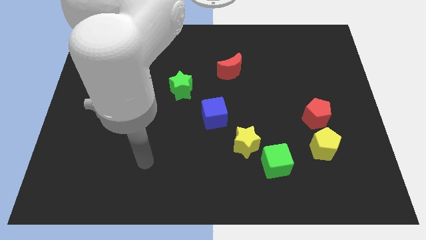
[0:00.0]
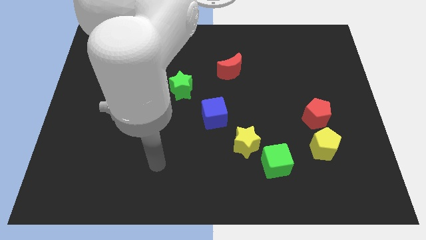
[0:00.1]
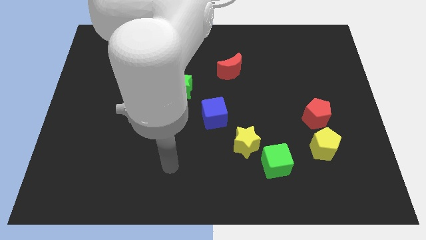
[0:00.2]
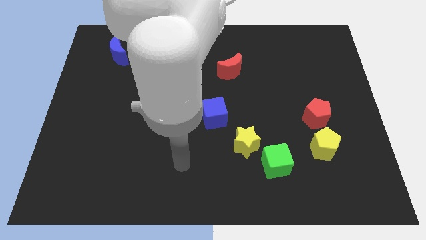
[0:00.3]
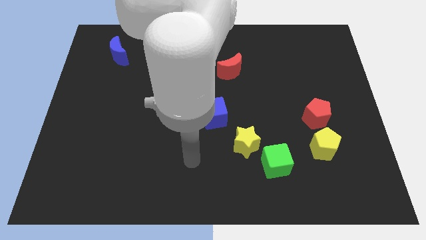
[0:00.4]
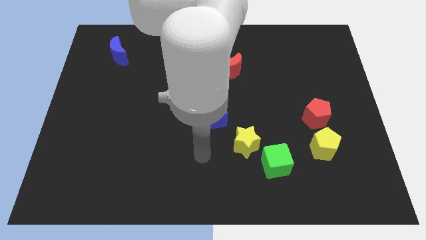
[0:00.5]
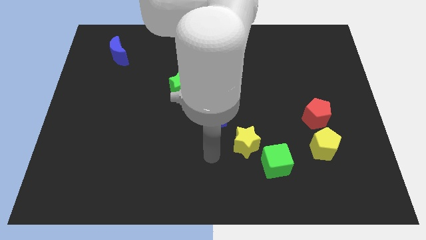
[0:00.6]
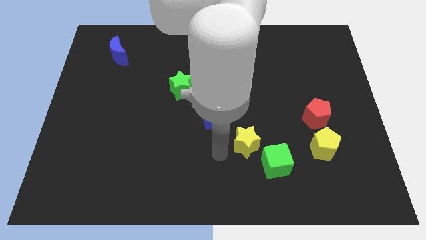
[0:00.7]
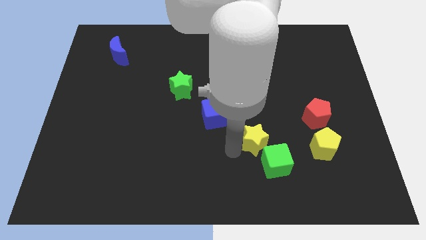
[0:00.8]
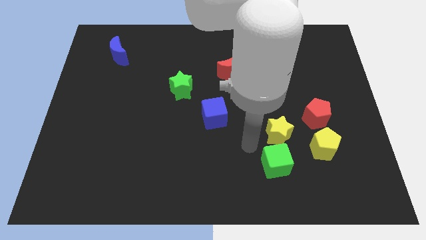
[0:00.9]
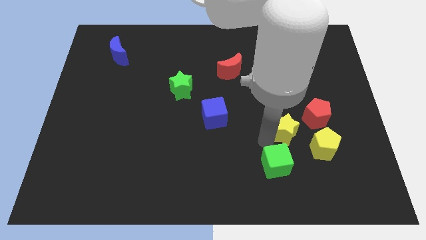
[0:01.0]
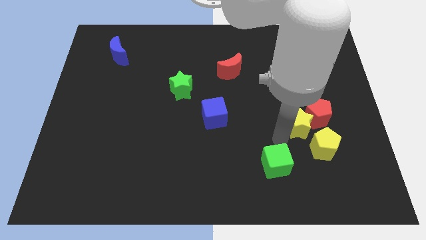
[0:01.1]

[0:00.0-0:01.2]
move the green cube away from the yellow star

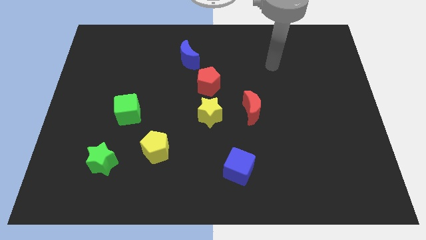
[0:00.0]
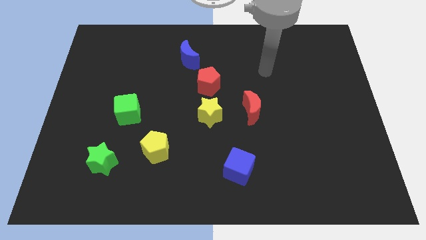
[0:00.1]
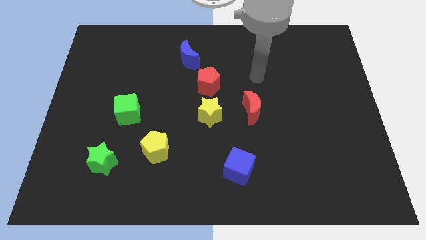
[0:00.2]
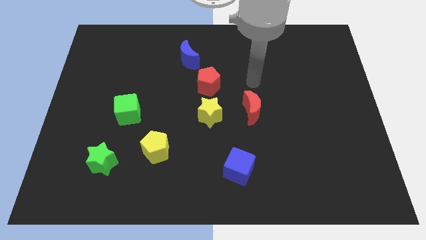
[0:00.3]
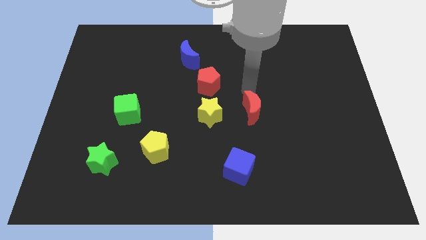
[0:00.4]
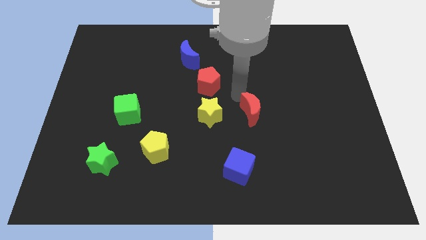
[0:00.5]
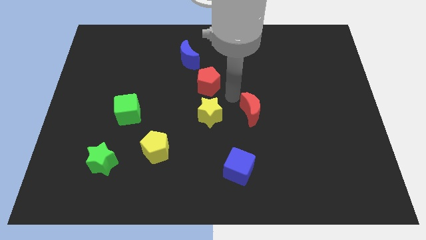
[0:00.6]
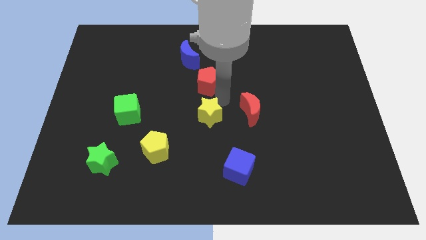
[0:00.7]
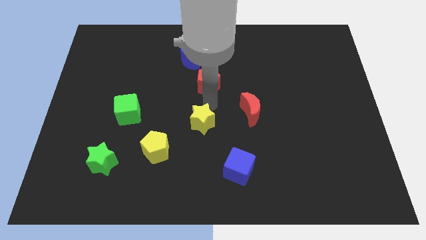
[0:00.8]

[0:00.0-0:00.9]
separate the red pentagon from the yellow star

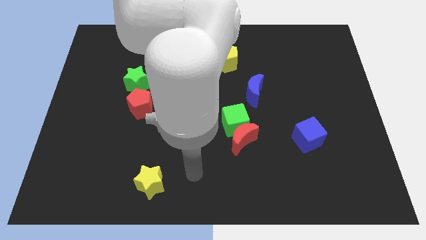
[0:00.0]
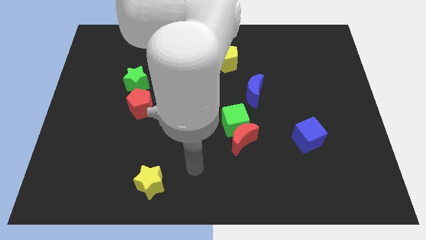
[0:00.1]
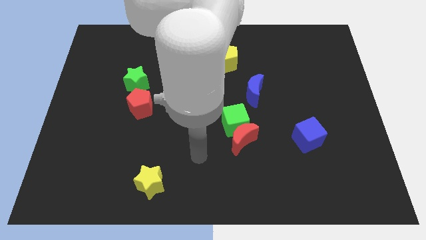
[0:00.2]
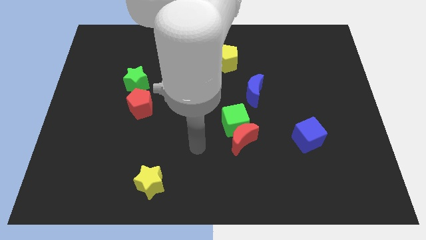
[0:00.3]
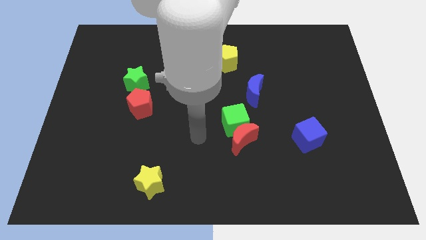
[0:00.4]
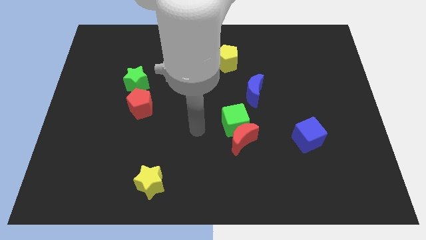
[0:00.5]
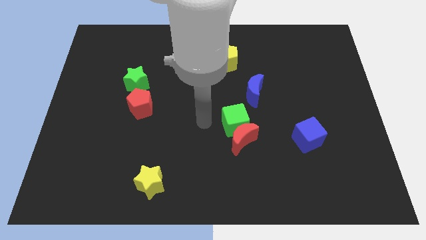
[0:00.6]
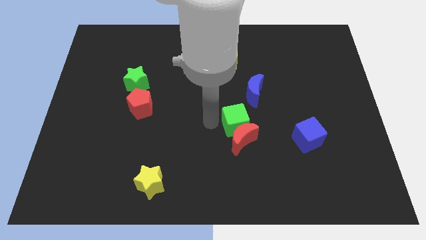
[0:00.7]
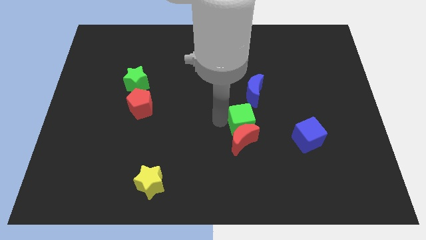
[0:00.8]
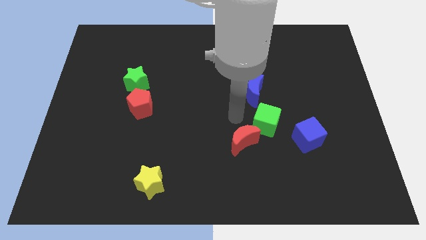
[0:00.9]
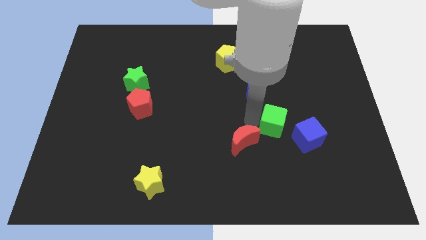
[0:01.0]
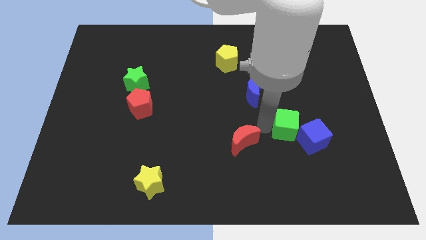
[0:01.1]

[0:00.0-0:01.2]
pull the red moon apart from the green cube

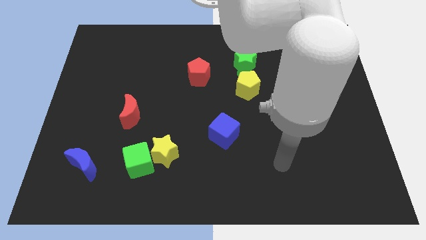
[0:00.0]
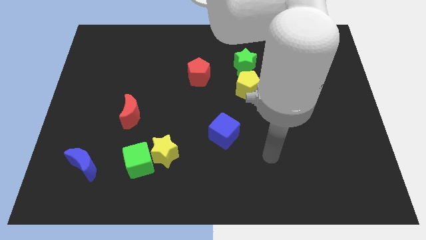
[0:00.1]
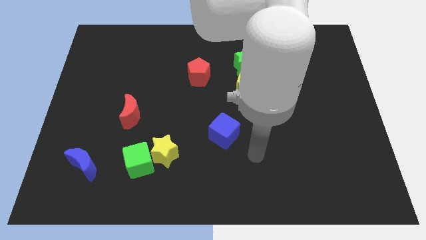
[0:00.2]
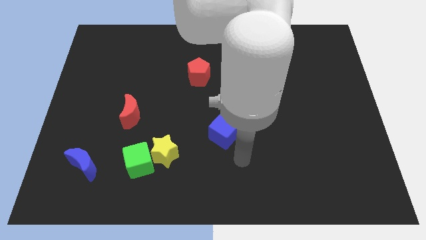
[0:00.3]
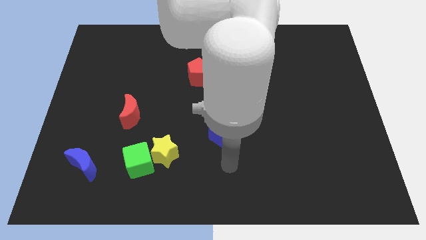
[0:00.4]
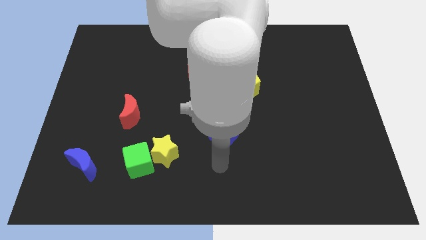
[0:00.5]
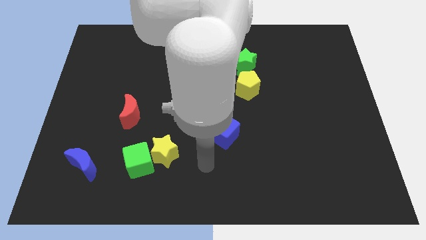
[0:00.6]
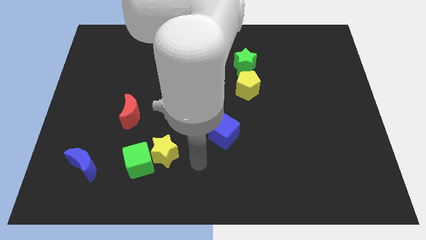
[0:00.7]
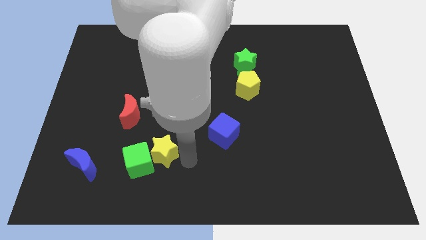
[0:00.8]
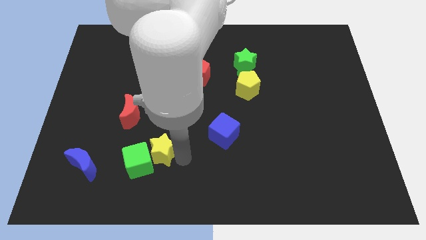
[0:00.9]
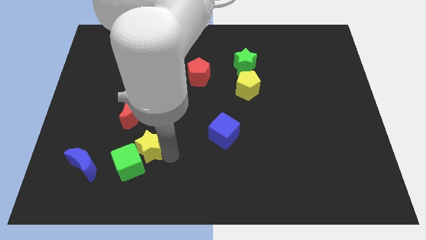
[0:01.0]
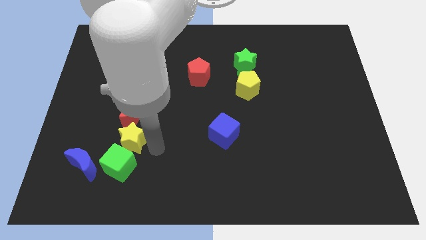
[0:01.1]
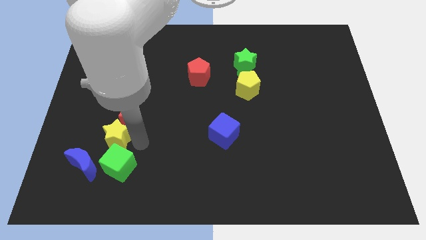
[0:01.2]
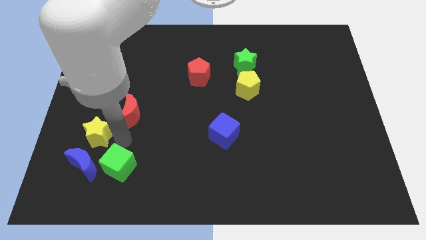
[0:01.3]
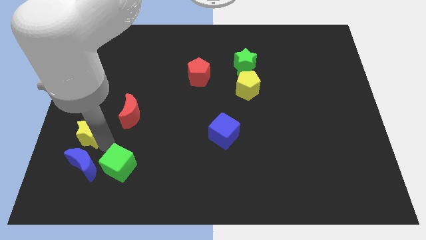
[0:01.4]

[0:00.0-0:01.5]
separate the green cube from the yellow star

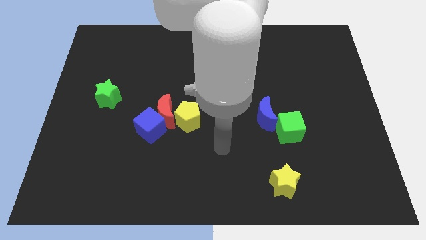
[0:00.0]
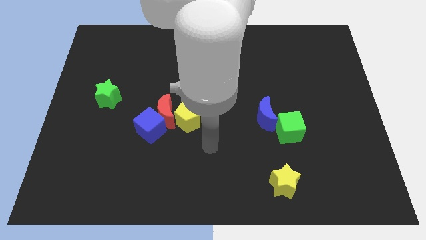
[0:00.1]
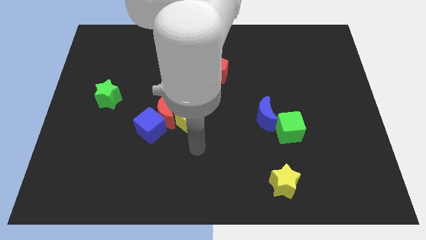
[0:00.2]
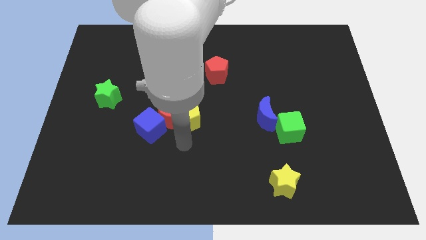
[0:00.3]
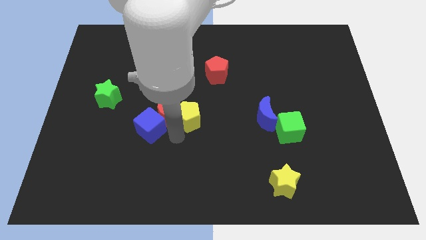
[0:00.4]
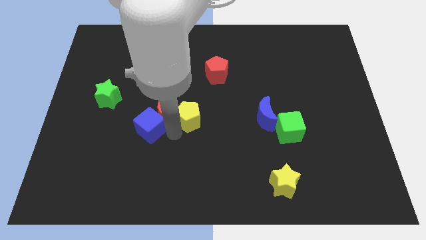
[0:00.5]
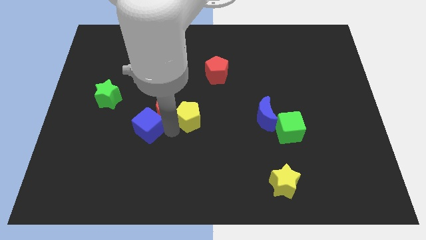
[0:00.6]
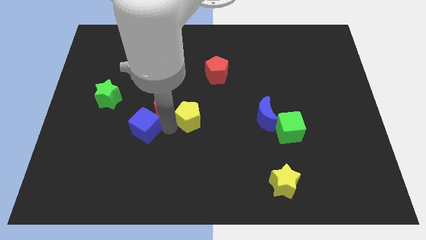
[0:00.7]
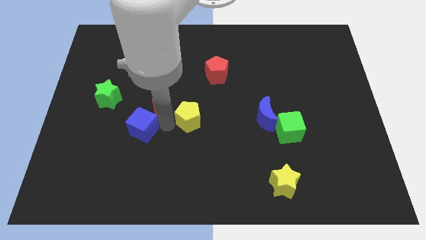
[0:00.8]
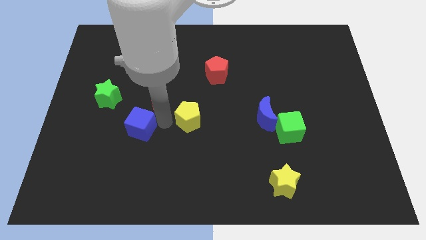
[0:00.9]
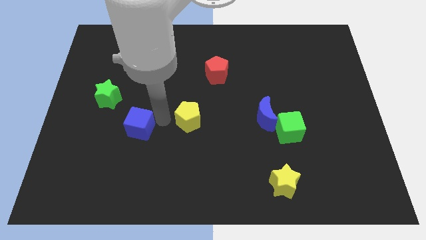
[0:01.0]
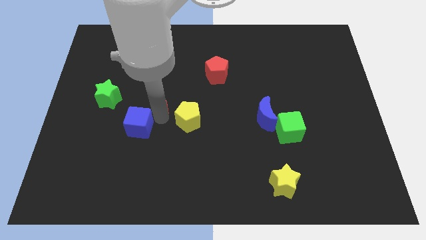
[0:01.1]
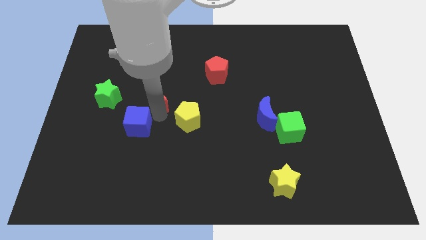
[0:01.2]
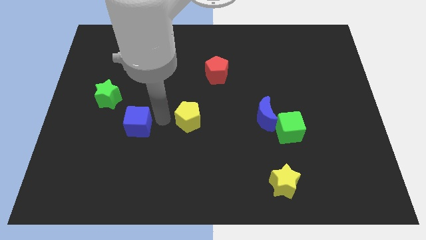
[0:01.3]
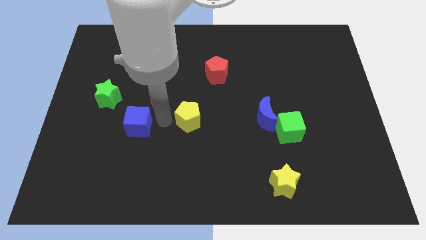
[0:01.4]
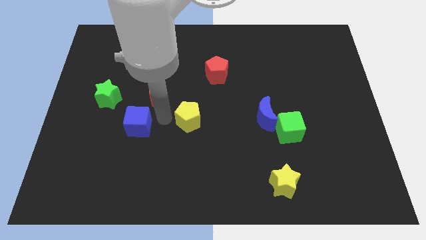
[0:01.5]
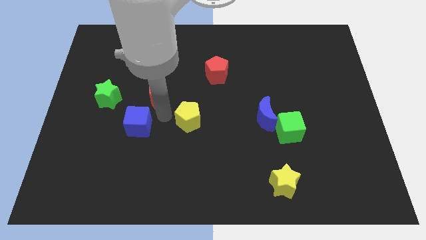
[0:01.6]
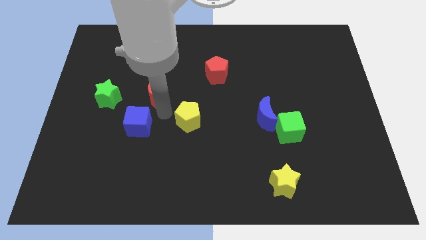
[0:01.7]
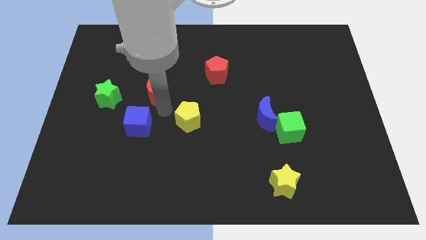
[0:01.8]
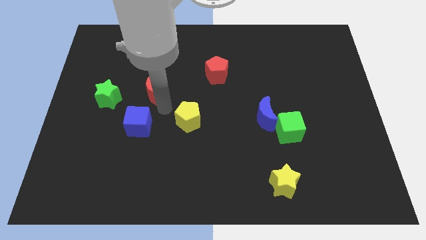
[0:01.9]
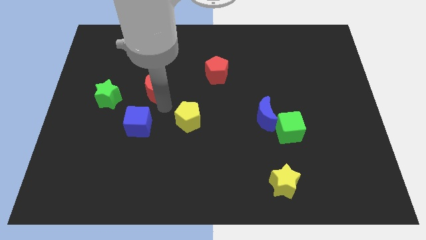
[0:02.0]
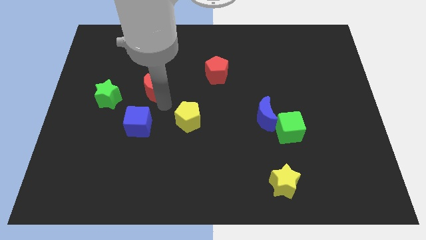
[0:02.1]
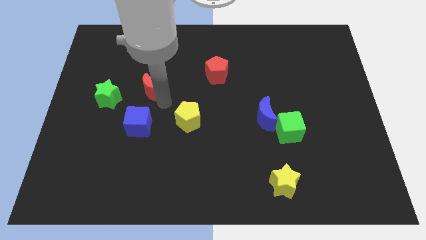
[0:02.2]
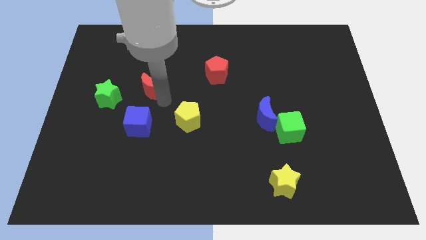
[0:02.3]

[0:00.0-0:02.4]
pull the red moon apart from the blue cube and yellow pentagon

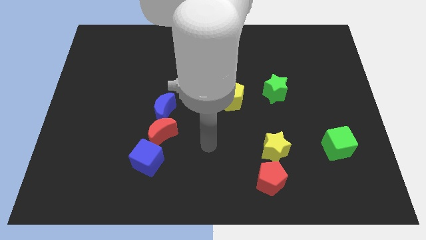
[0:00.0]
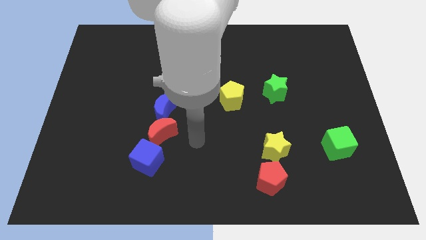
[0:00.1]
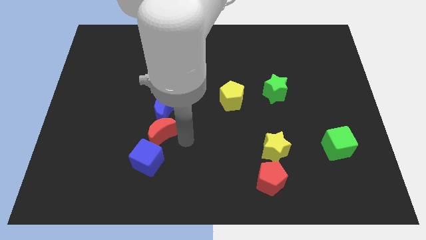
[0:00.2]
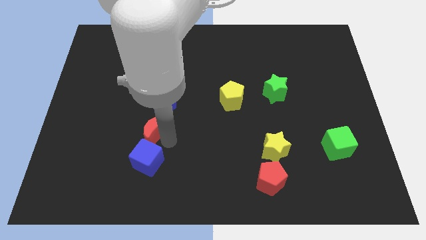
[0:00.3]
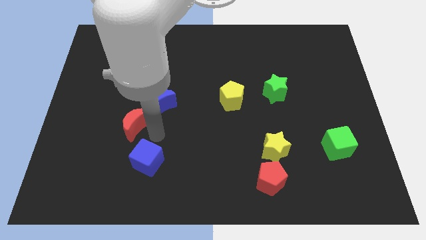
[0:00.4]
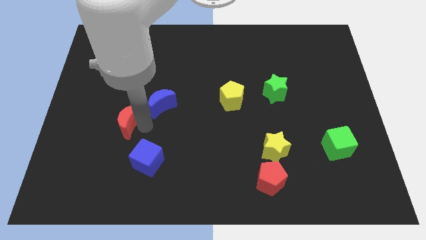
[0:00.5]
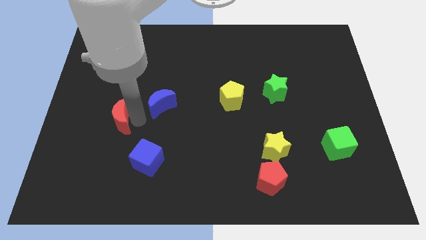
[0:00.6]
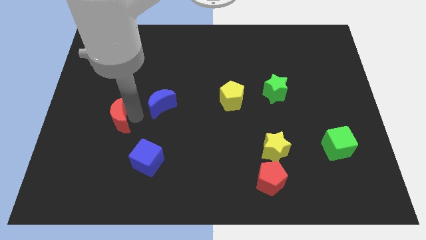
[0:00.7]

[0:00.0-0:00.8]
separate the blue moon from the red moon

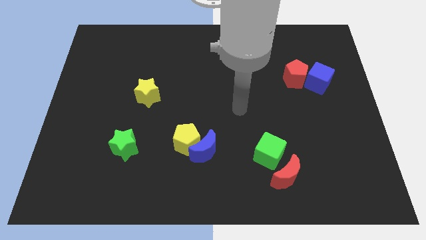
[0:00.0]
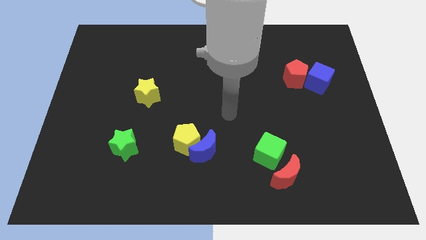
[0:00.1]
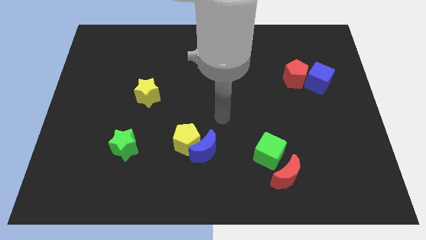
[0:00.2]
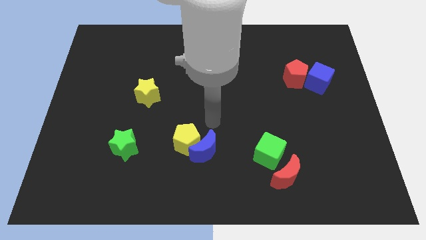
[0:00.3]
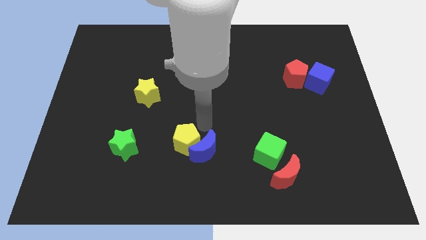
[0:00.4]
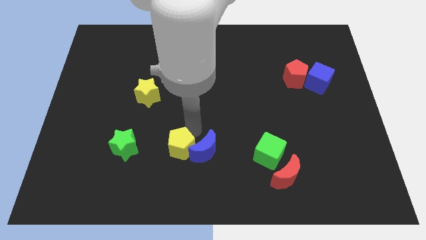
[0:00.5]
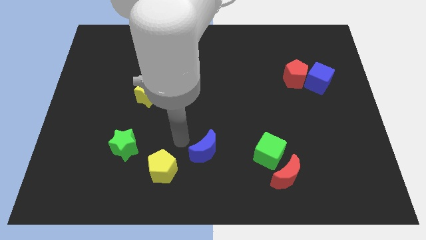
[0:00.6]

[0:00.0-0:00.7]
separate the blue moon from the yellow pentagon

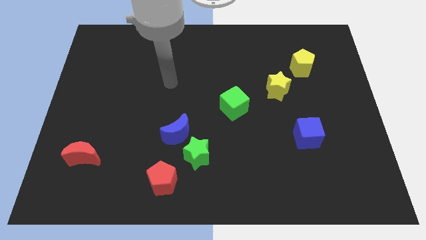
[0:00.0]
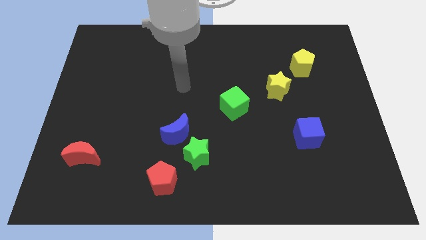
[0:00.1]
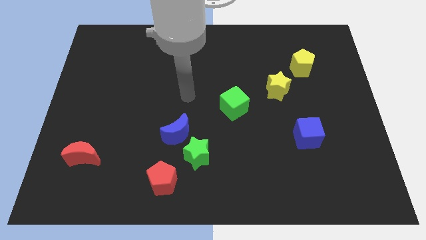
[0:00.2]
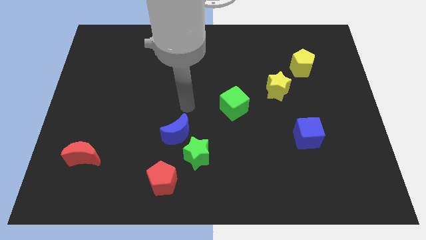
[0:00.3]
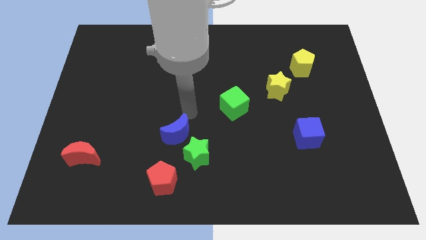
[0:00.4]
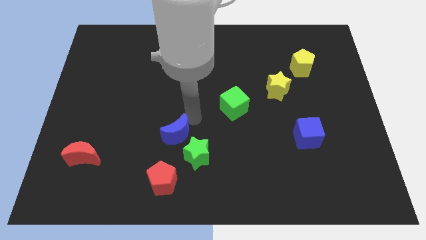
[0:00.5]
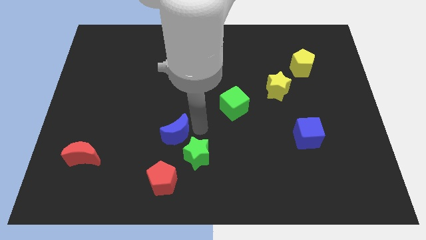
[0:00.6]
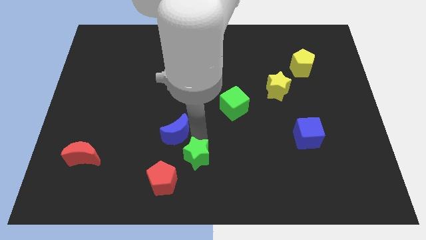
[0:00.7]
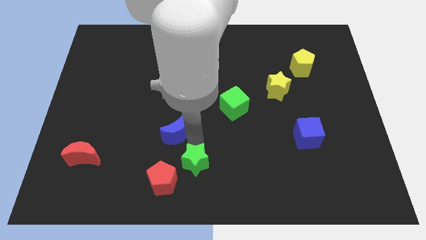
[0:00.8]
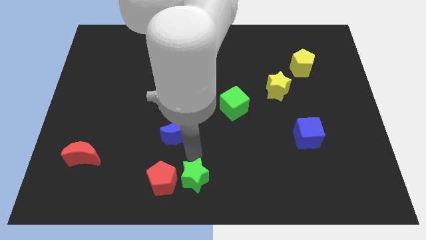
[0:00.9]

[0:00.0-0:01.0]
move the blue moon away from the green star
